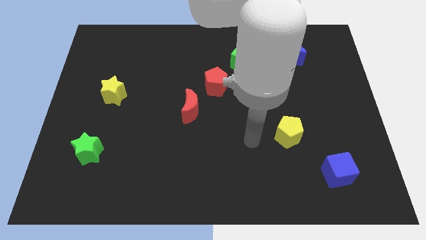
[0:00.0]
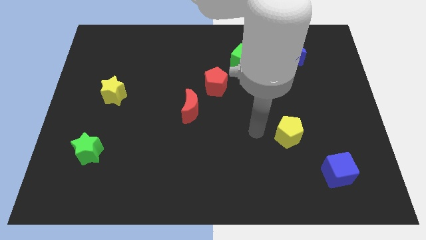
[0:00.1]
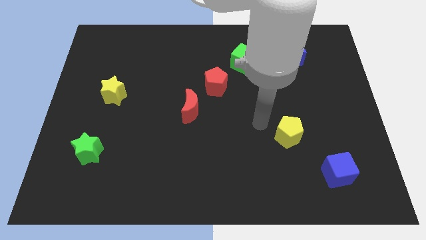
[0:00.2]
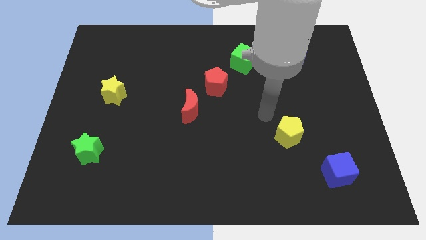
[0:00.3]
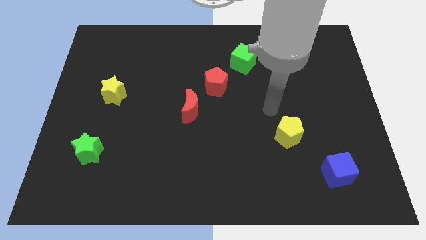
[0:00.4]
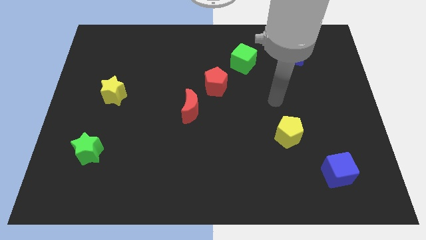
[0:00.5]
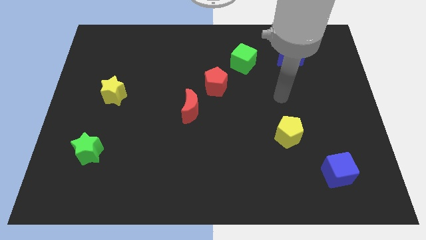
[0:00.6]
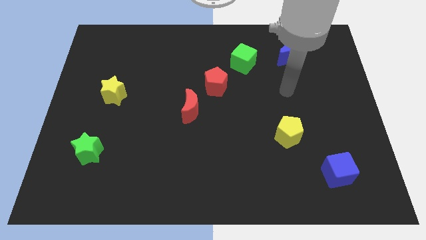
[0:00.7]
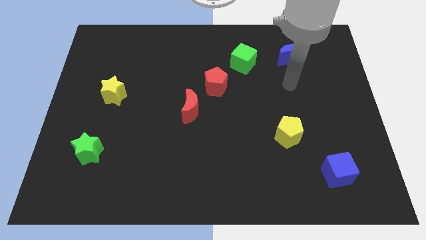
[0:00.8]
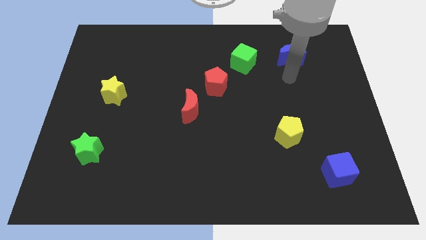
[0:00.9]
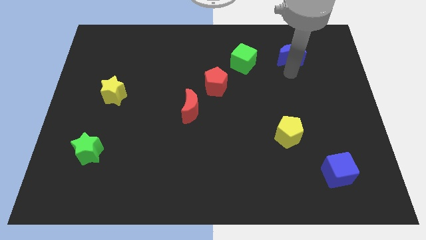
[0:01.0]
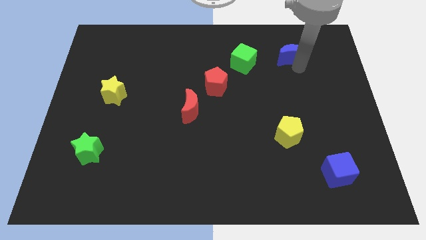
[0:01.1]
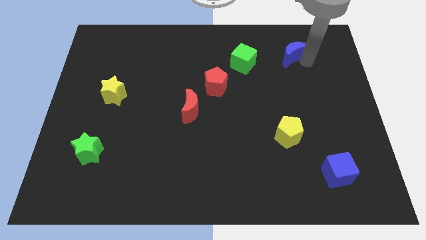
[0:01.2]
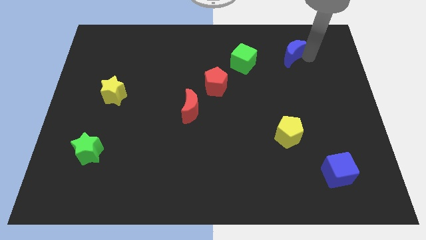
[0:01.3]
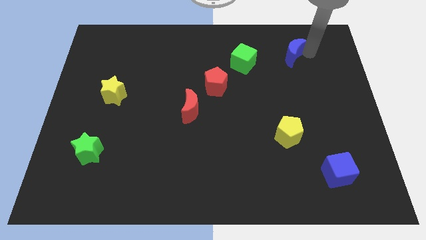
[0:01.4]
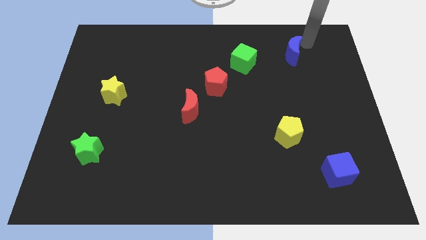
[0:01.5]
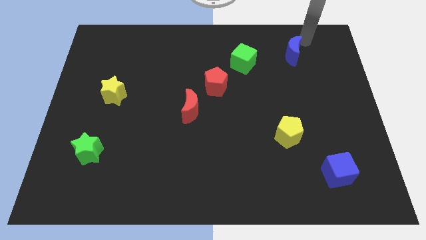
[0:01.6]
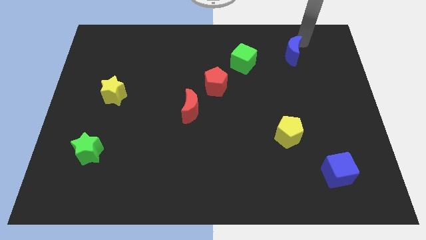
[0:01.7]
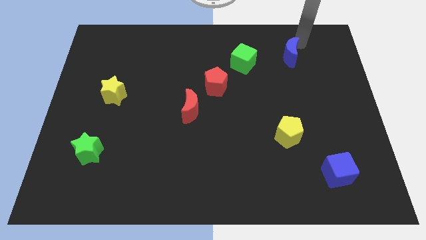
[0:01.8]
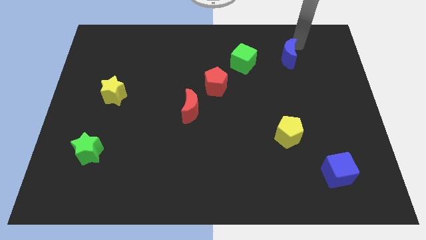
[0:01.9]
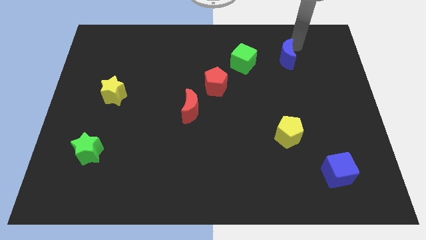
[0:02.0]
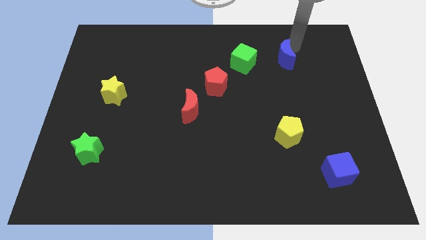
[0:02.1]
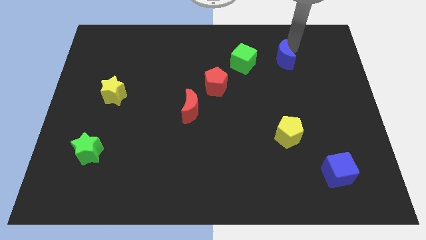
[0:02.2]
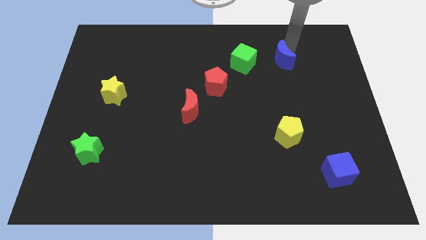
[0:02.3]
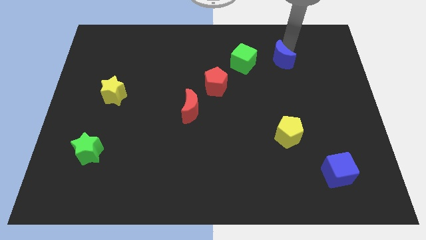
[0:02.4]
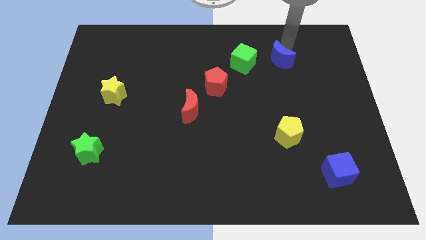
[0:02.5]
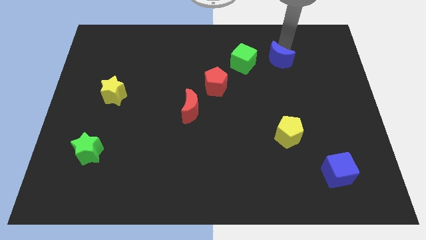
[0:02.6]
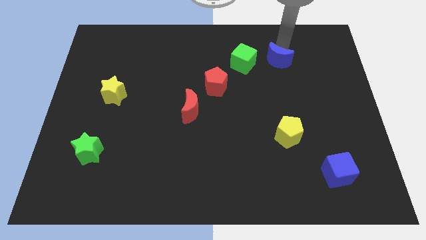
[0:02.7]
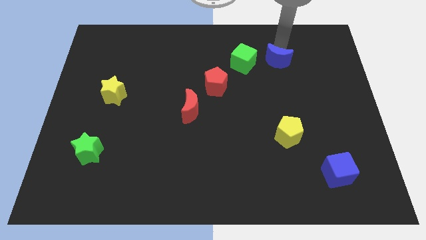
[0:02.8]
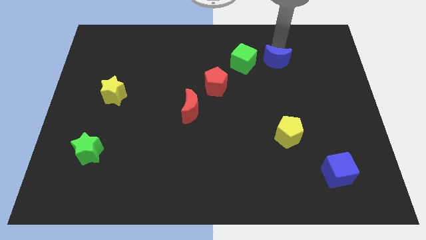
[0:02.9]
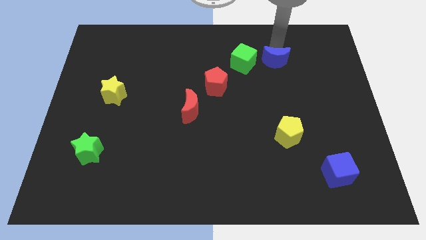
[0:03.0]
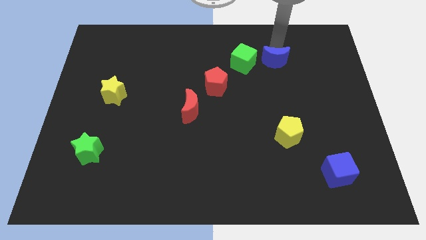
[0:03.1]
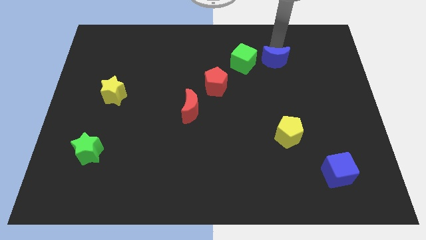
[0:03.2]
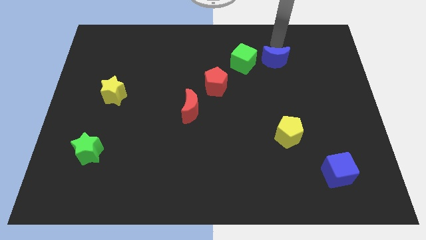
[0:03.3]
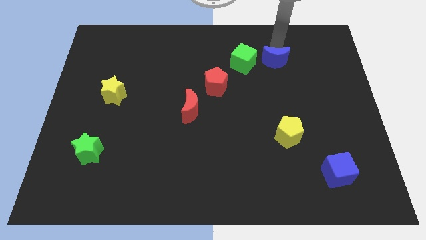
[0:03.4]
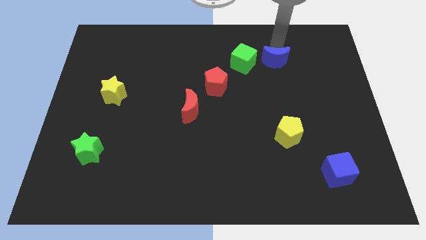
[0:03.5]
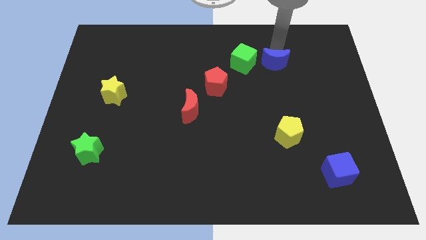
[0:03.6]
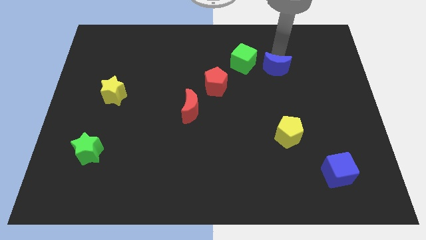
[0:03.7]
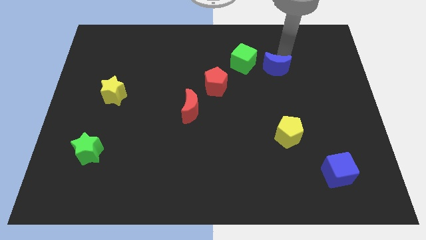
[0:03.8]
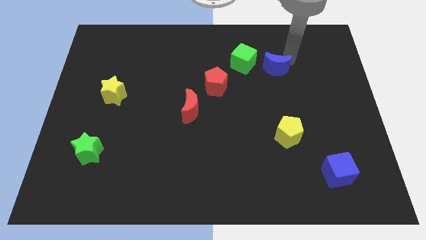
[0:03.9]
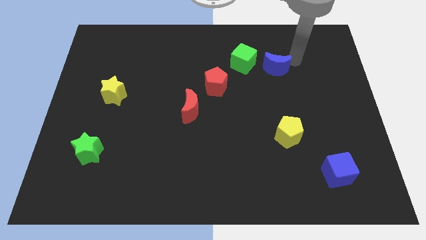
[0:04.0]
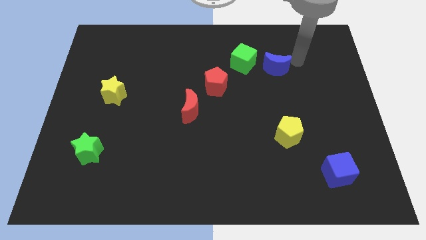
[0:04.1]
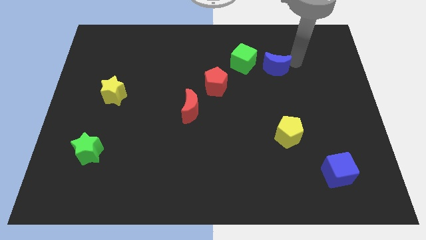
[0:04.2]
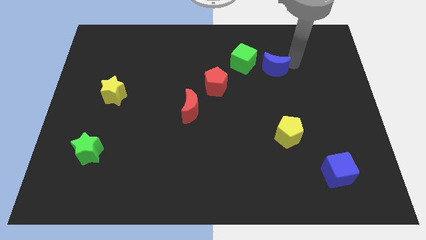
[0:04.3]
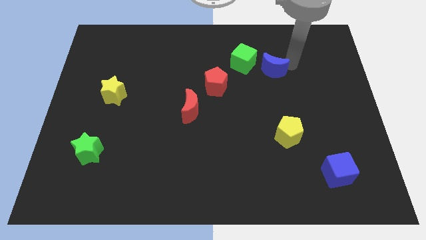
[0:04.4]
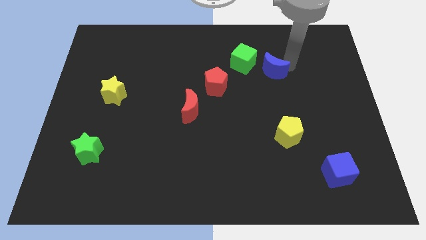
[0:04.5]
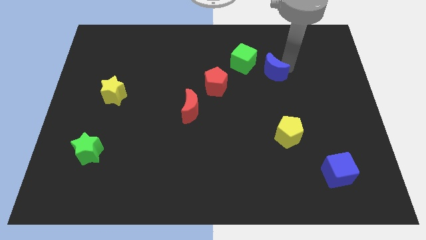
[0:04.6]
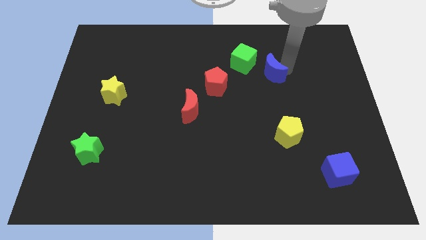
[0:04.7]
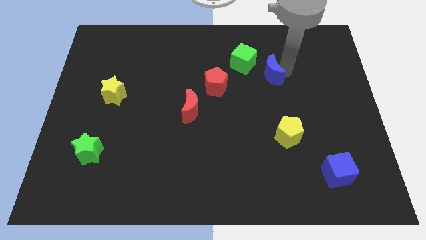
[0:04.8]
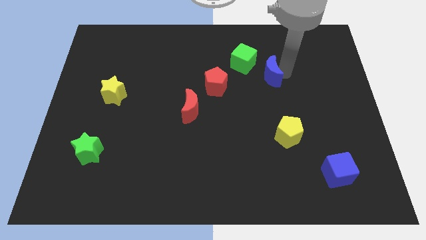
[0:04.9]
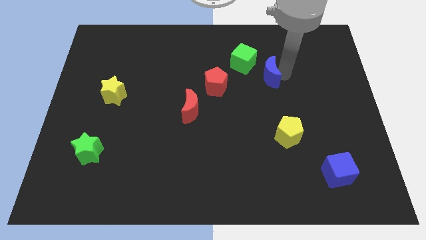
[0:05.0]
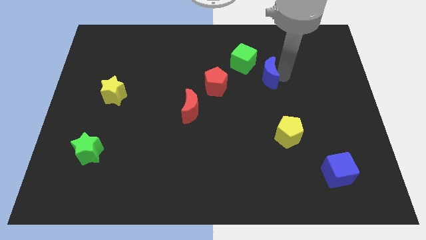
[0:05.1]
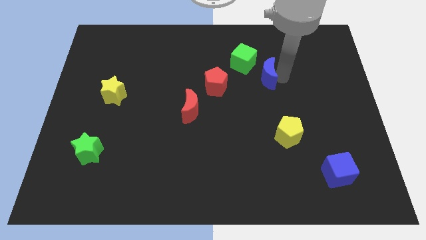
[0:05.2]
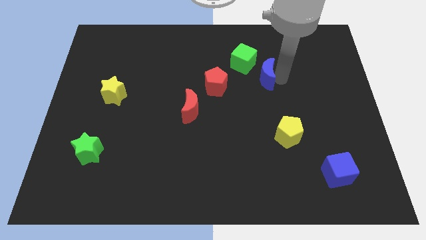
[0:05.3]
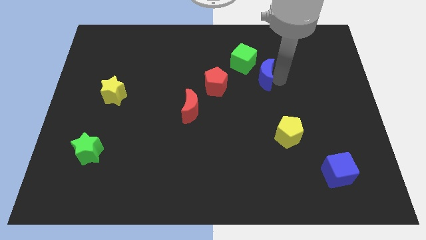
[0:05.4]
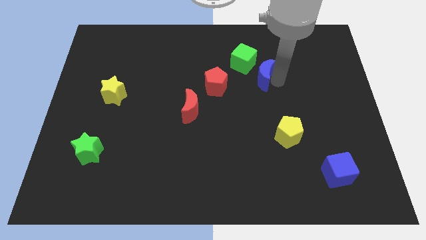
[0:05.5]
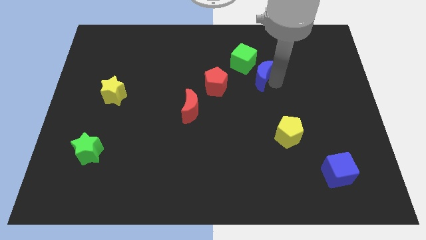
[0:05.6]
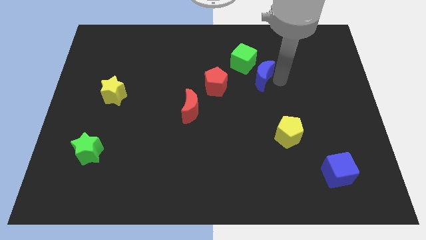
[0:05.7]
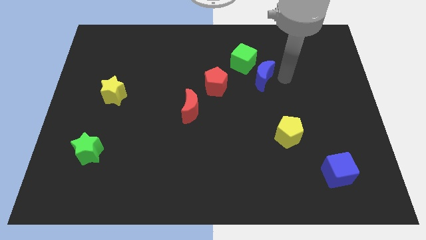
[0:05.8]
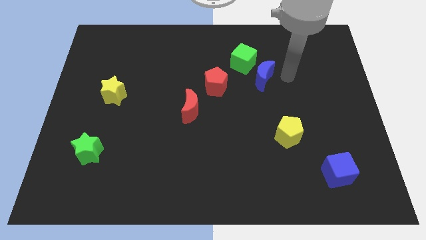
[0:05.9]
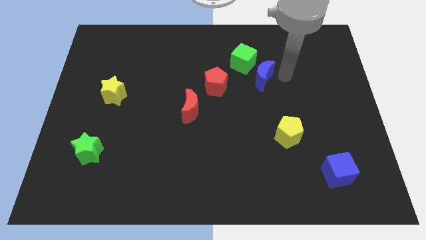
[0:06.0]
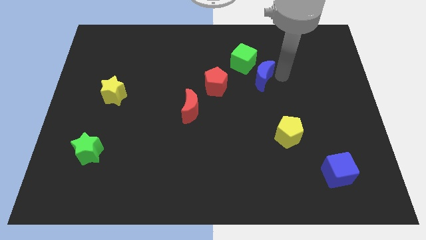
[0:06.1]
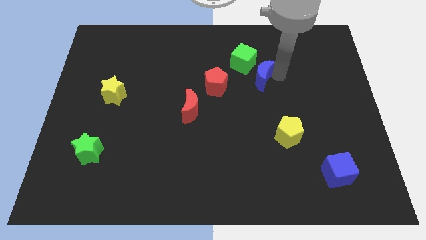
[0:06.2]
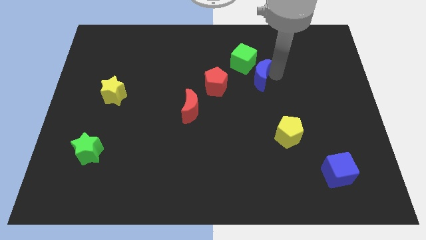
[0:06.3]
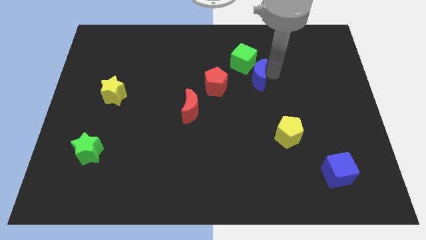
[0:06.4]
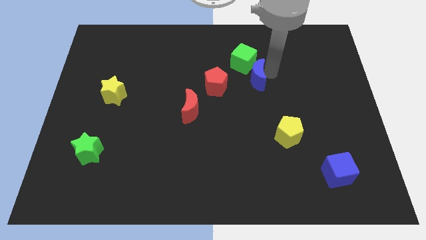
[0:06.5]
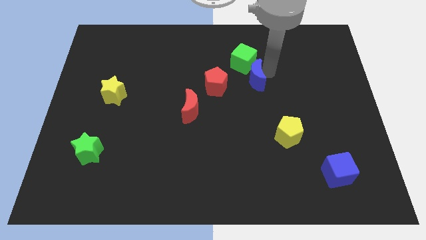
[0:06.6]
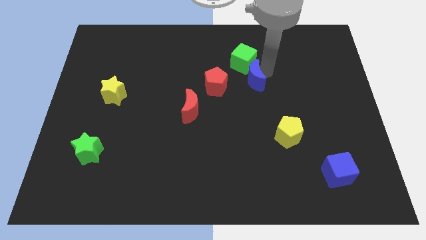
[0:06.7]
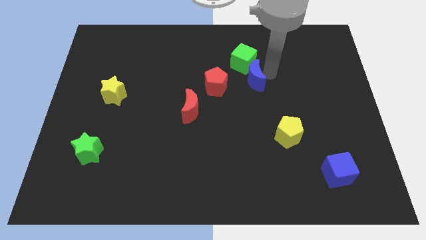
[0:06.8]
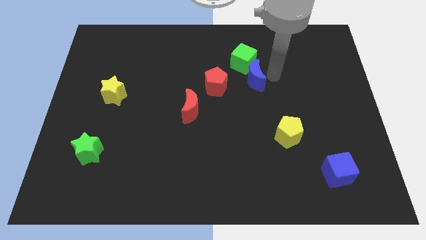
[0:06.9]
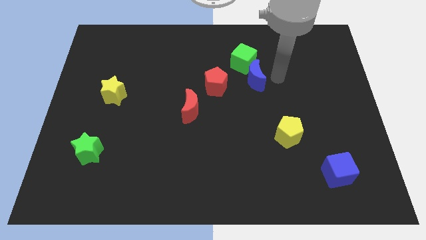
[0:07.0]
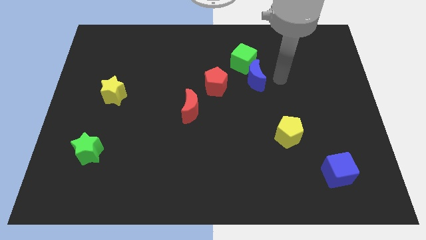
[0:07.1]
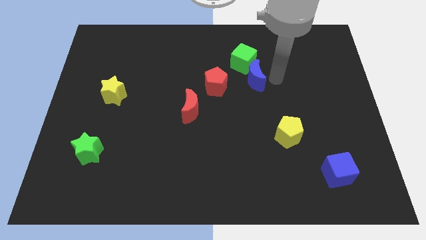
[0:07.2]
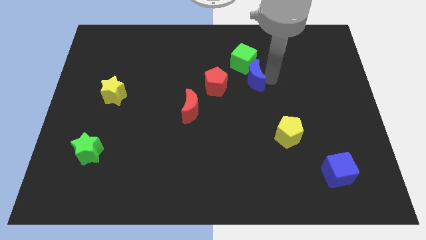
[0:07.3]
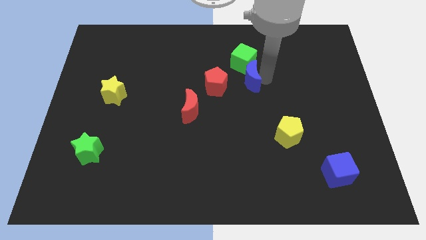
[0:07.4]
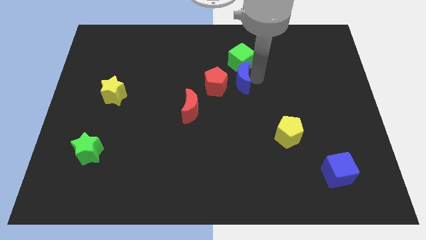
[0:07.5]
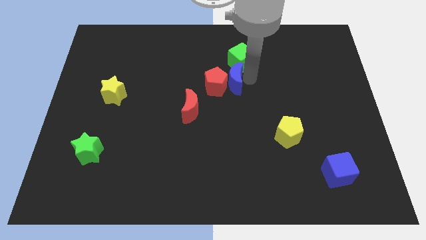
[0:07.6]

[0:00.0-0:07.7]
move the blue moon close to the red pentagon

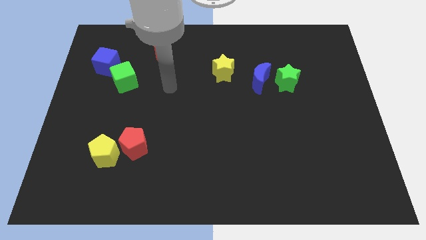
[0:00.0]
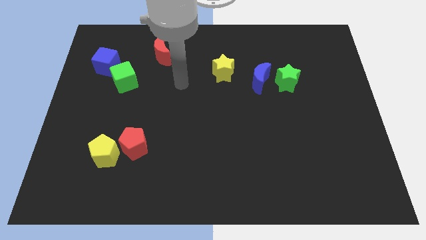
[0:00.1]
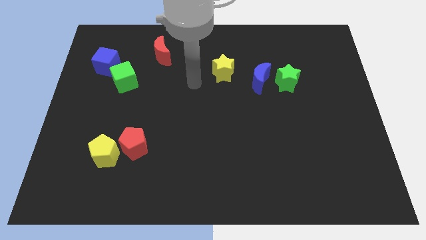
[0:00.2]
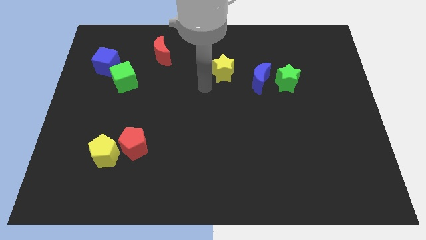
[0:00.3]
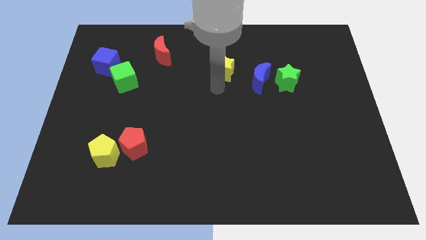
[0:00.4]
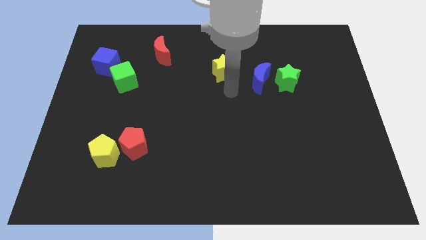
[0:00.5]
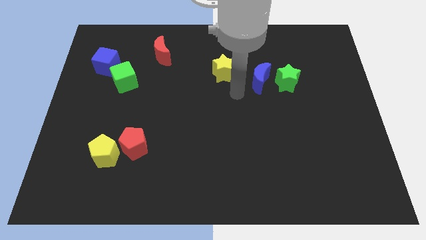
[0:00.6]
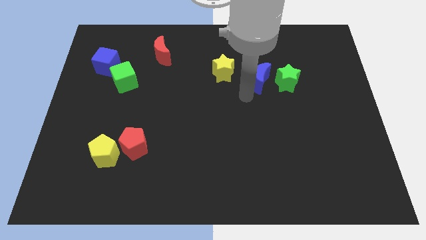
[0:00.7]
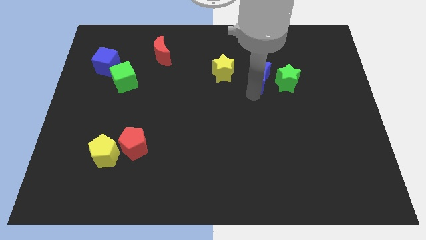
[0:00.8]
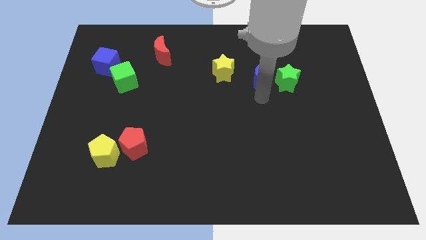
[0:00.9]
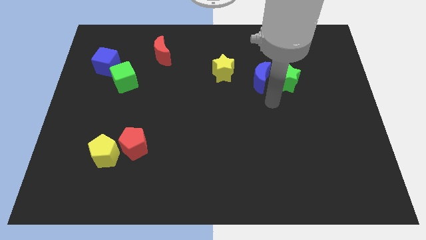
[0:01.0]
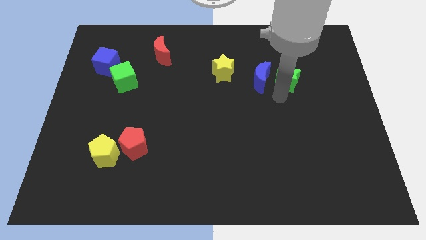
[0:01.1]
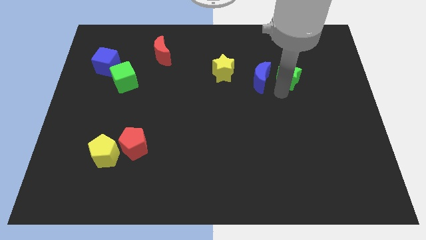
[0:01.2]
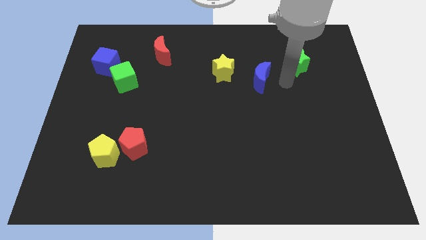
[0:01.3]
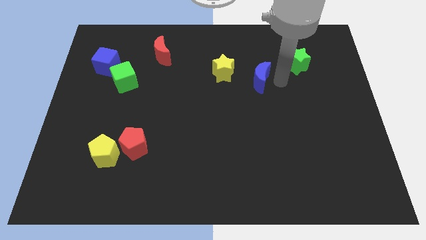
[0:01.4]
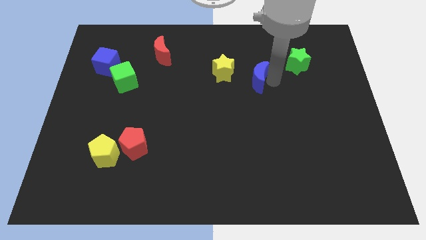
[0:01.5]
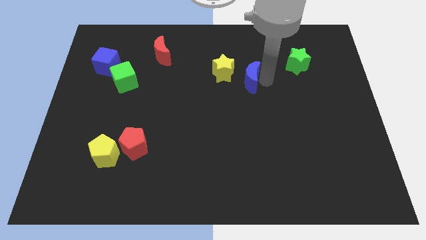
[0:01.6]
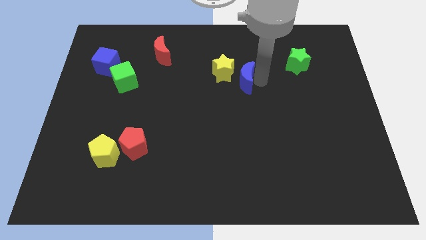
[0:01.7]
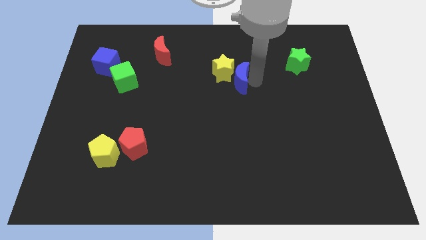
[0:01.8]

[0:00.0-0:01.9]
put the blue moon next to the yellow star
